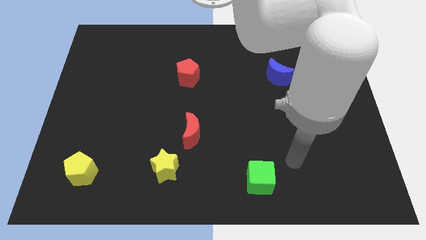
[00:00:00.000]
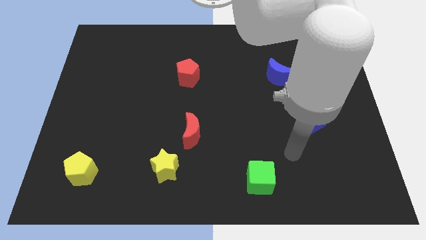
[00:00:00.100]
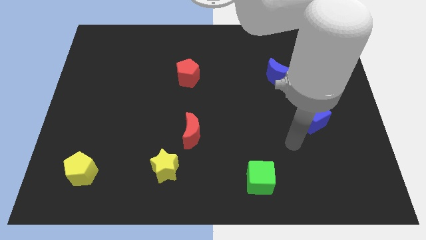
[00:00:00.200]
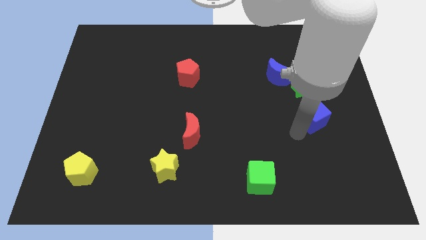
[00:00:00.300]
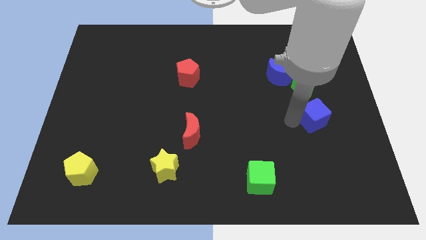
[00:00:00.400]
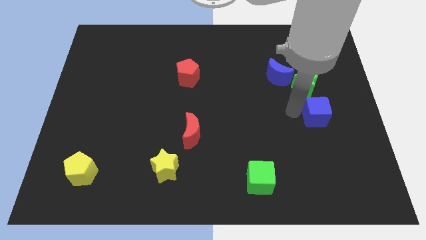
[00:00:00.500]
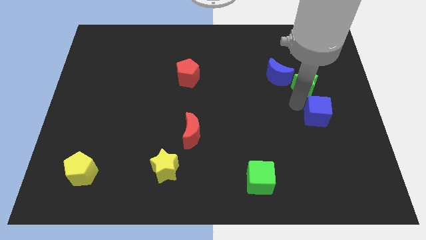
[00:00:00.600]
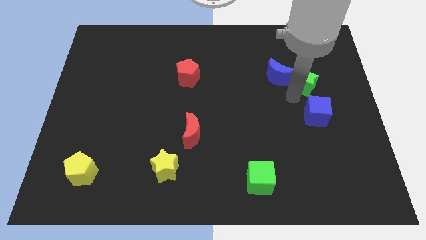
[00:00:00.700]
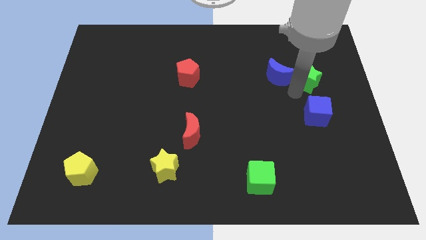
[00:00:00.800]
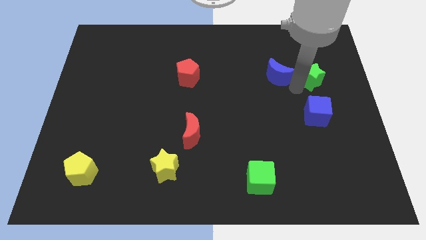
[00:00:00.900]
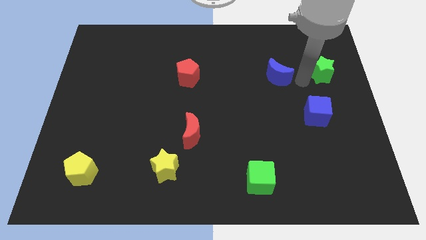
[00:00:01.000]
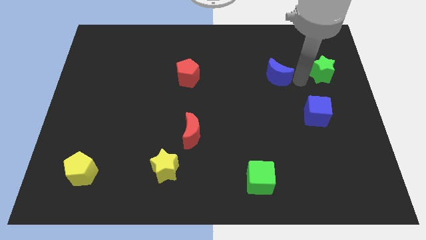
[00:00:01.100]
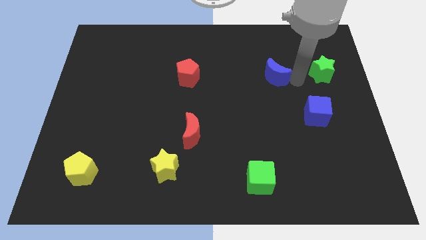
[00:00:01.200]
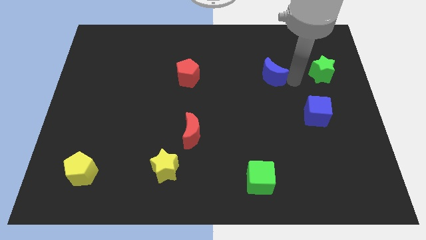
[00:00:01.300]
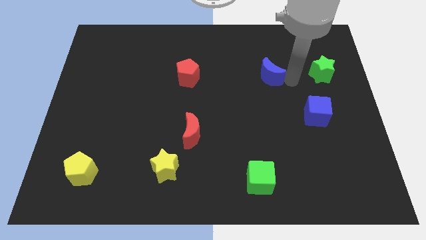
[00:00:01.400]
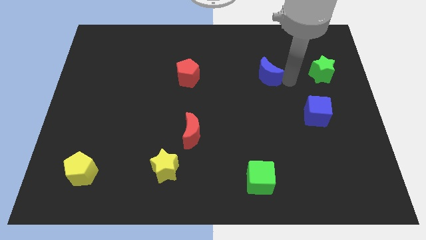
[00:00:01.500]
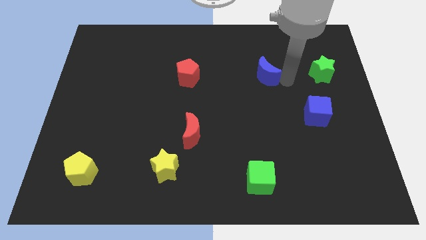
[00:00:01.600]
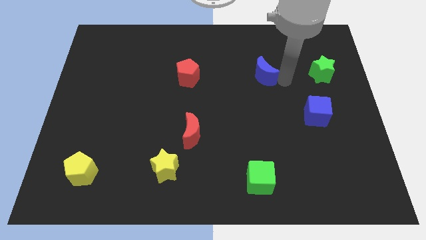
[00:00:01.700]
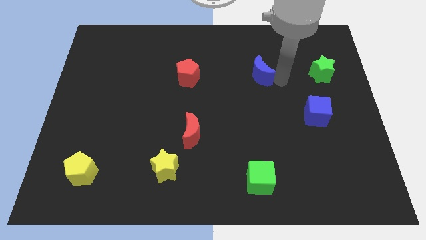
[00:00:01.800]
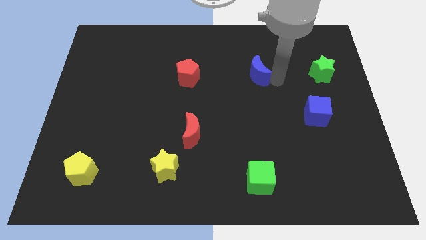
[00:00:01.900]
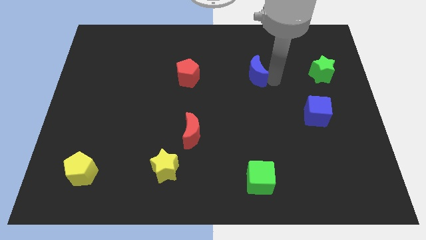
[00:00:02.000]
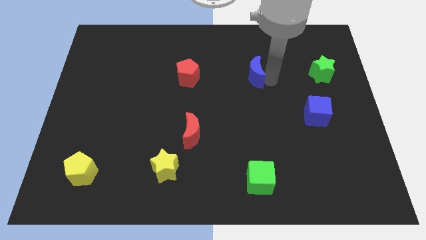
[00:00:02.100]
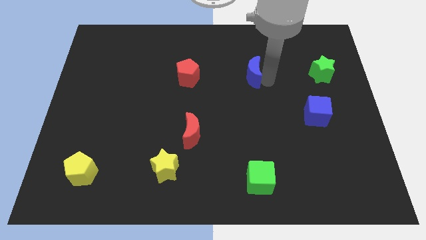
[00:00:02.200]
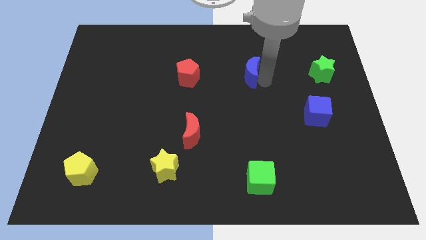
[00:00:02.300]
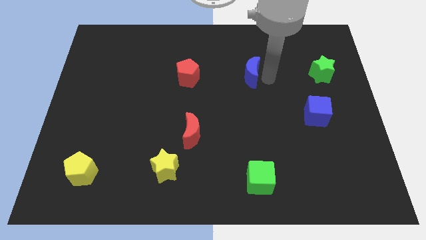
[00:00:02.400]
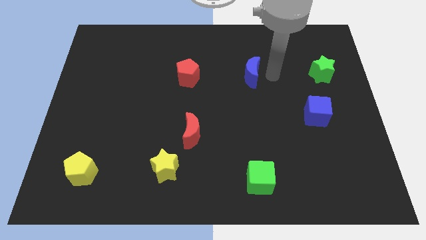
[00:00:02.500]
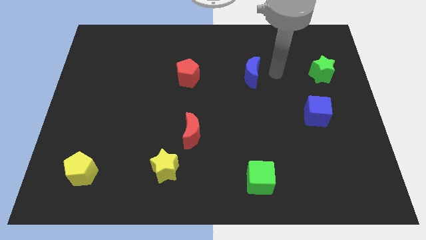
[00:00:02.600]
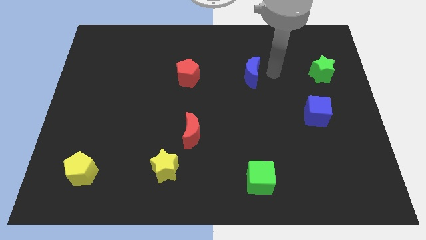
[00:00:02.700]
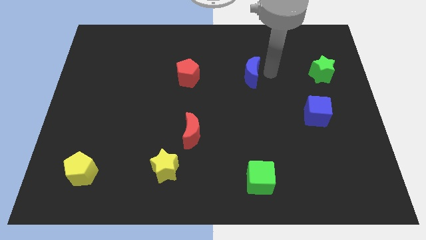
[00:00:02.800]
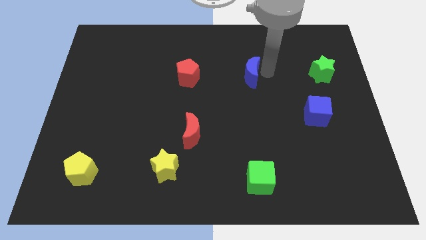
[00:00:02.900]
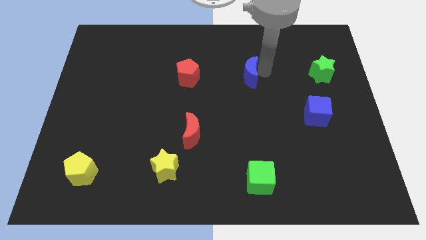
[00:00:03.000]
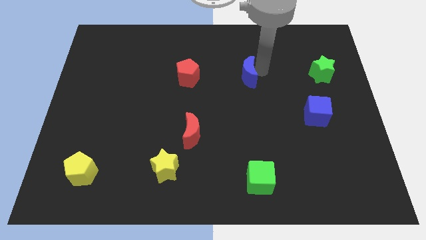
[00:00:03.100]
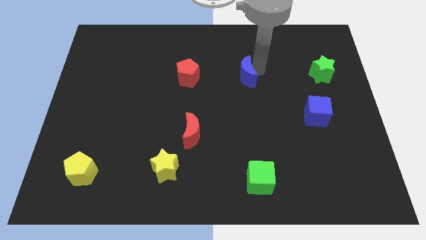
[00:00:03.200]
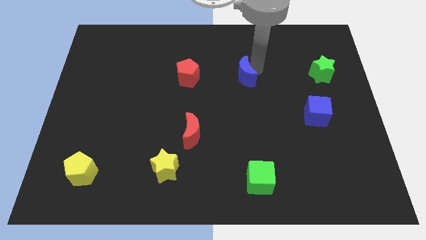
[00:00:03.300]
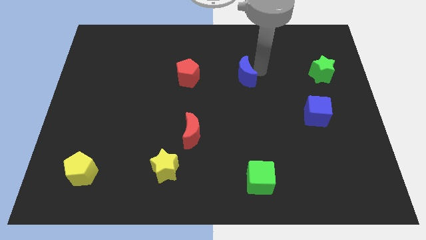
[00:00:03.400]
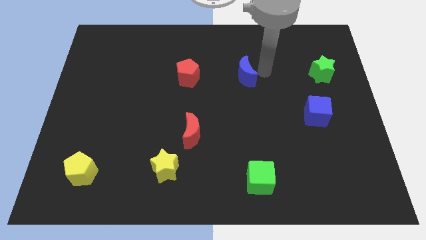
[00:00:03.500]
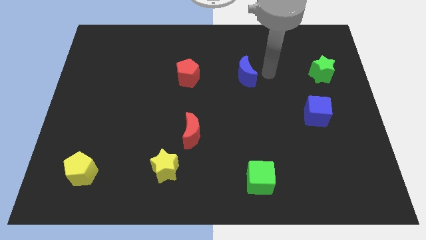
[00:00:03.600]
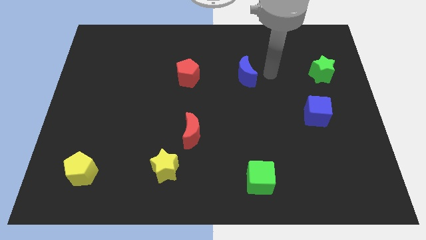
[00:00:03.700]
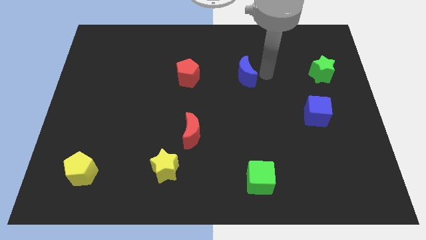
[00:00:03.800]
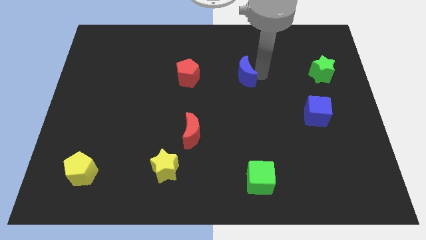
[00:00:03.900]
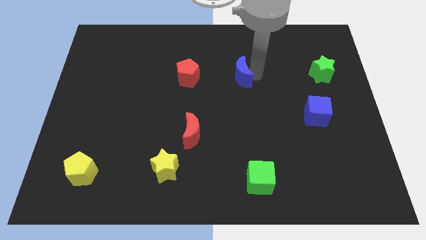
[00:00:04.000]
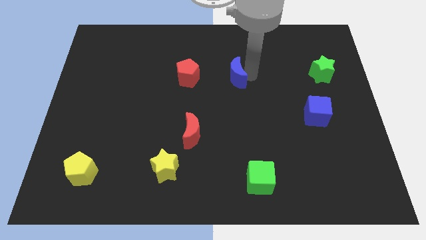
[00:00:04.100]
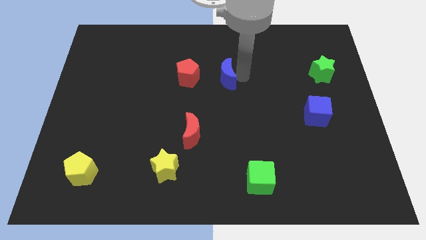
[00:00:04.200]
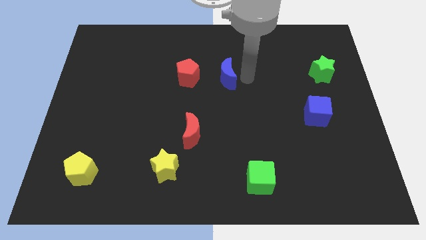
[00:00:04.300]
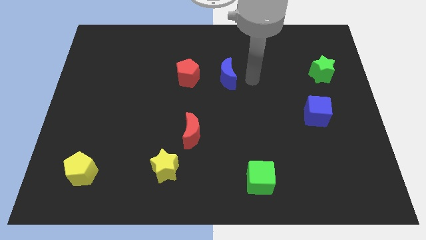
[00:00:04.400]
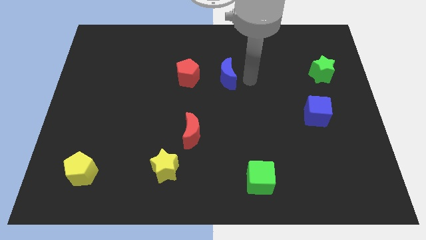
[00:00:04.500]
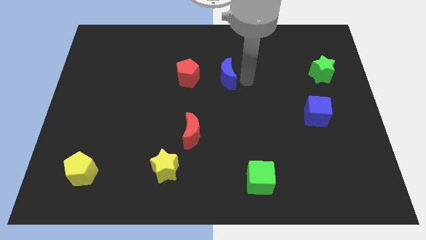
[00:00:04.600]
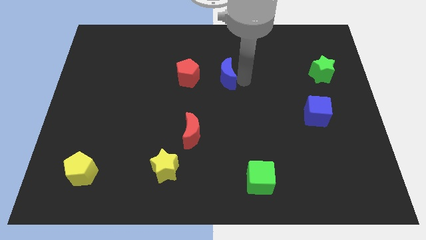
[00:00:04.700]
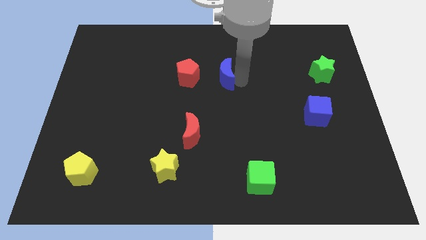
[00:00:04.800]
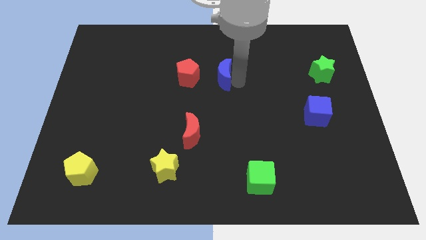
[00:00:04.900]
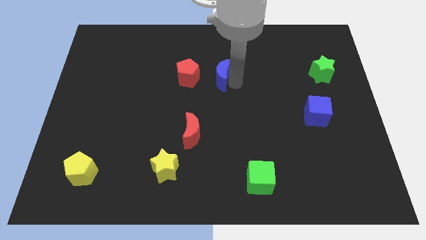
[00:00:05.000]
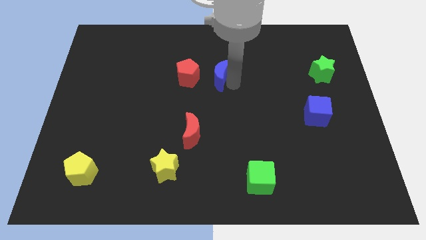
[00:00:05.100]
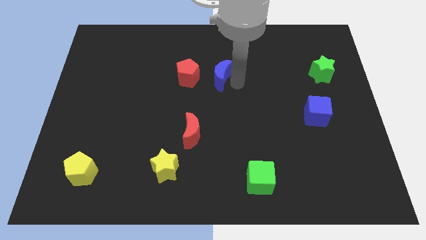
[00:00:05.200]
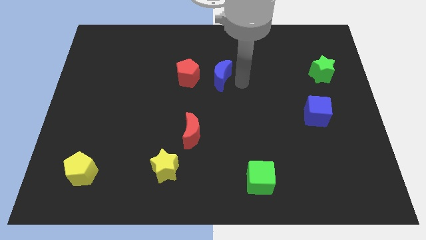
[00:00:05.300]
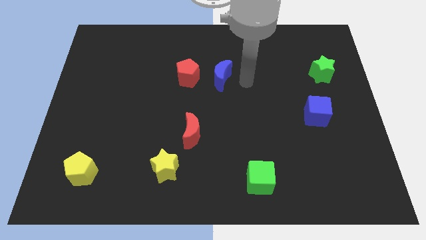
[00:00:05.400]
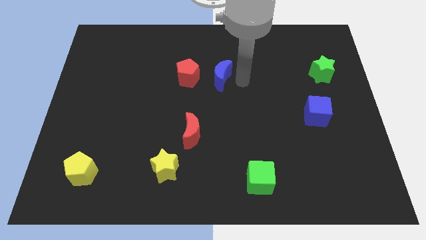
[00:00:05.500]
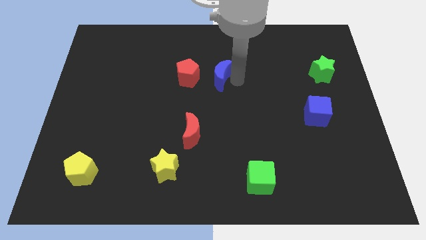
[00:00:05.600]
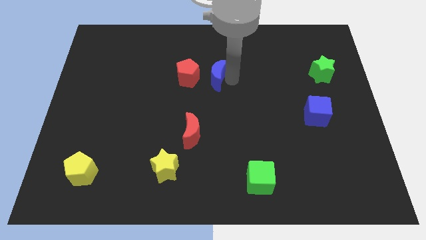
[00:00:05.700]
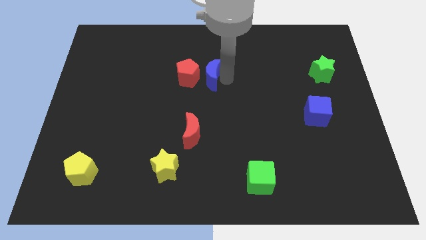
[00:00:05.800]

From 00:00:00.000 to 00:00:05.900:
push the blue moon towards the red pentagon

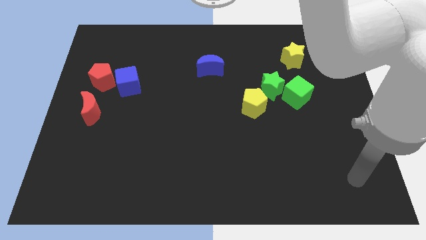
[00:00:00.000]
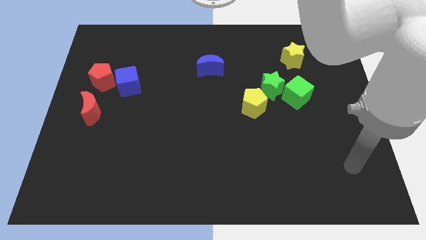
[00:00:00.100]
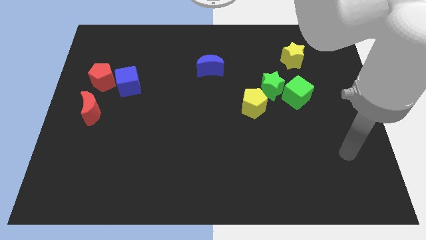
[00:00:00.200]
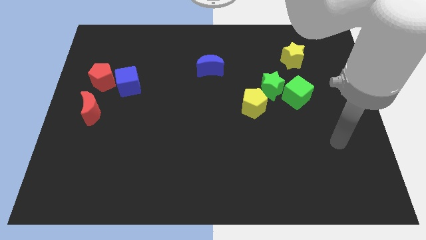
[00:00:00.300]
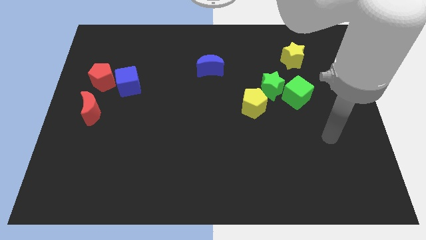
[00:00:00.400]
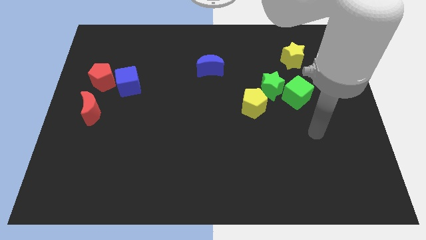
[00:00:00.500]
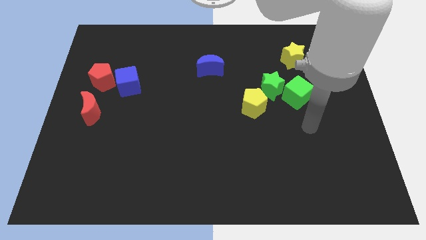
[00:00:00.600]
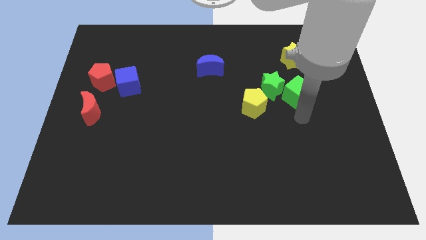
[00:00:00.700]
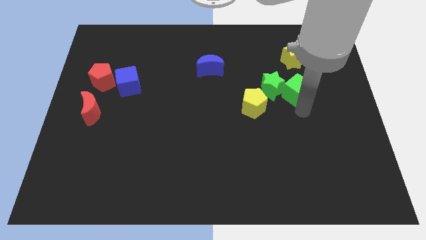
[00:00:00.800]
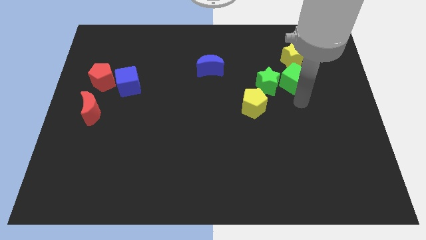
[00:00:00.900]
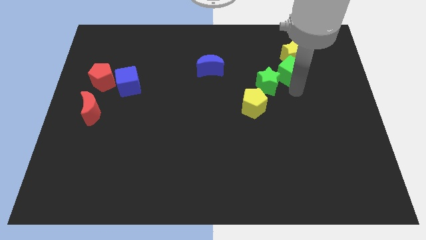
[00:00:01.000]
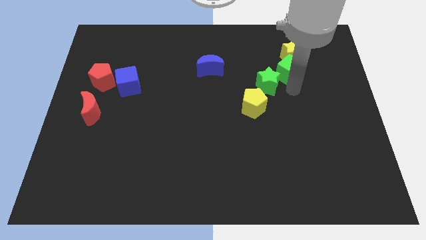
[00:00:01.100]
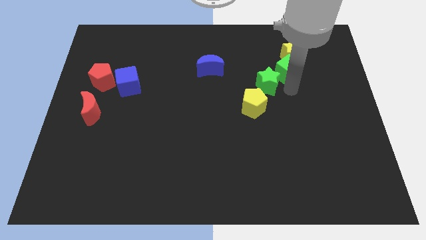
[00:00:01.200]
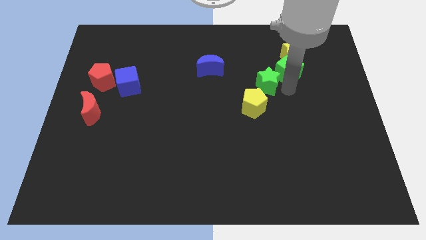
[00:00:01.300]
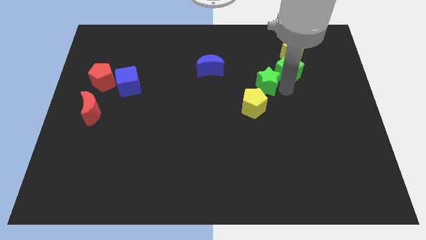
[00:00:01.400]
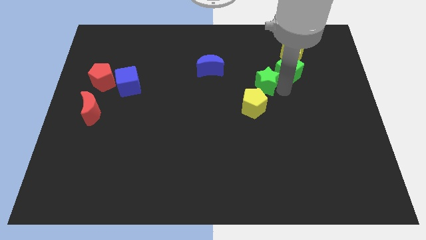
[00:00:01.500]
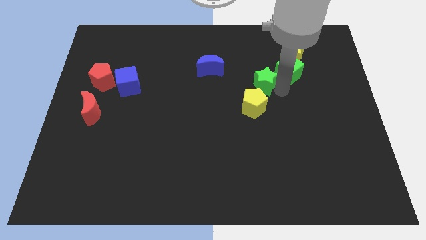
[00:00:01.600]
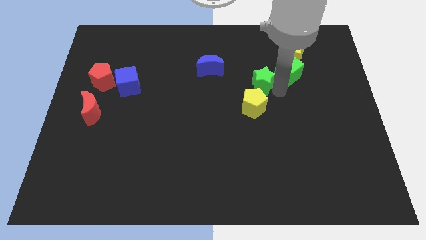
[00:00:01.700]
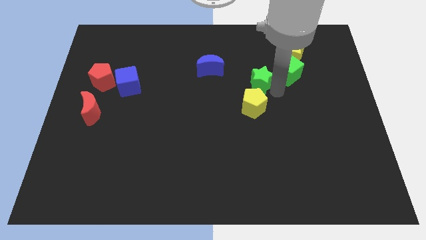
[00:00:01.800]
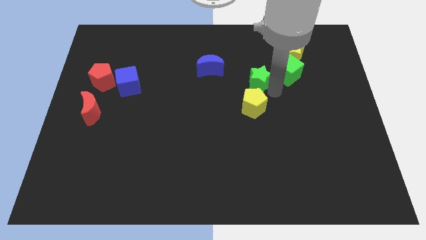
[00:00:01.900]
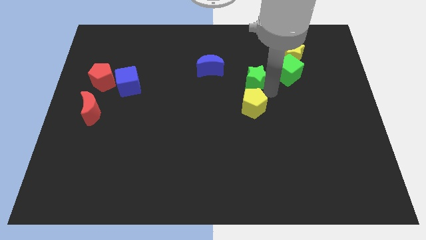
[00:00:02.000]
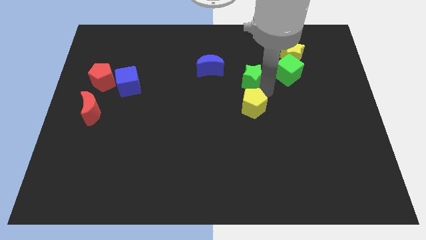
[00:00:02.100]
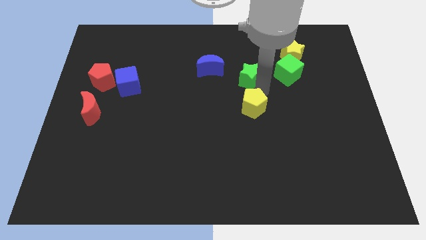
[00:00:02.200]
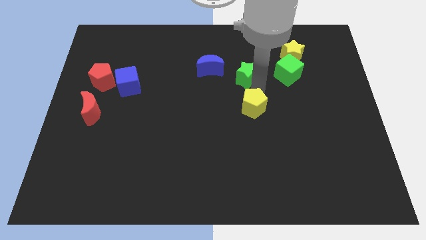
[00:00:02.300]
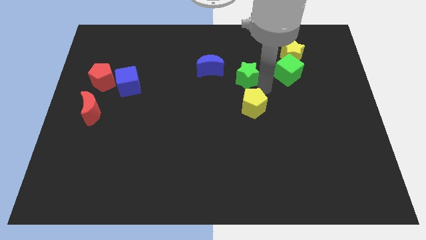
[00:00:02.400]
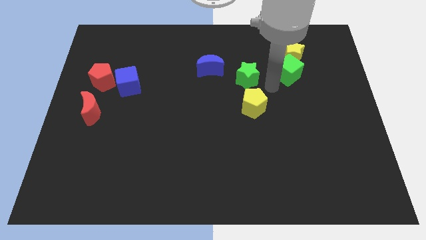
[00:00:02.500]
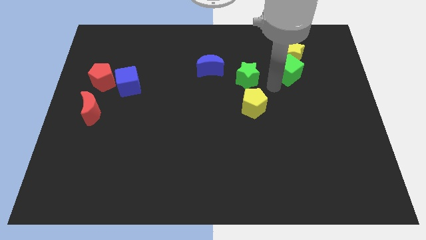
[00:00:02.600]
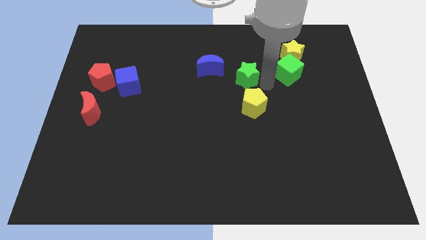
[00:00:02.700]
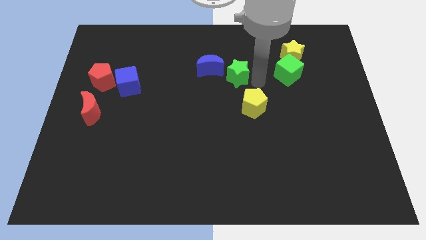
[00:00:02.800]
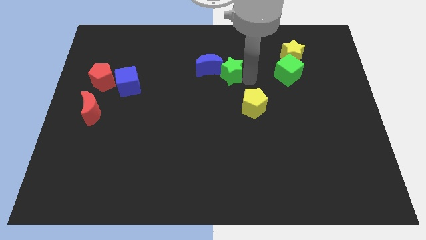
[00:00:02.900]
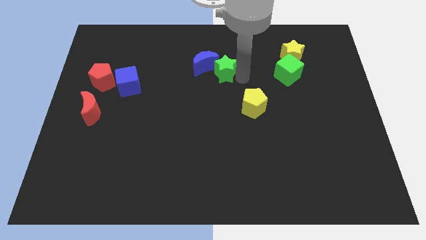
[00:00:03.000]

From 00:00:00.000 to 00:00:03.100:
put the green star towards the blue moon
